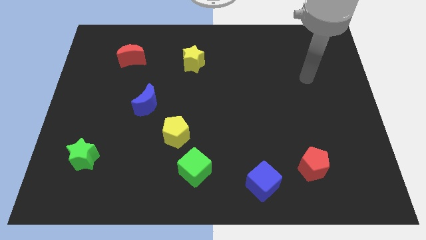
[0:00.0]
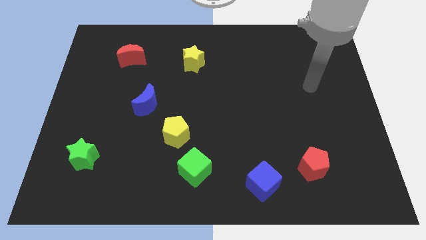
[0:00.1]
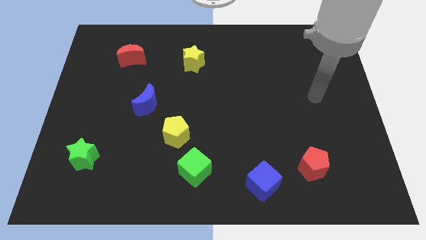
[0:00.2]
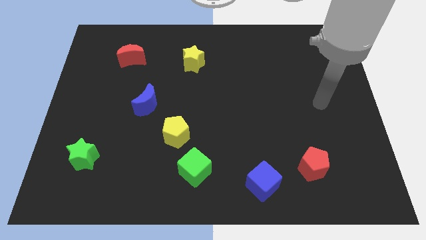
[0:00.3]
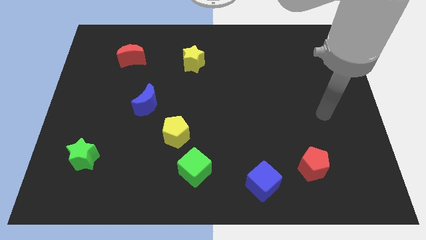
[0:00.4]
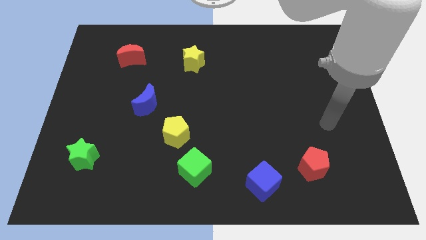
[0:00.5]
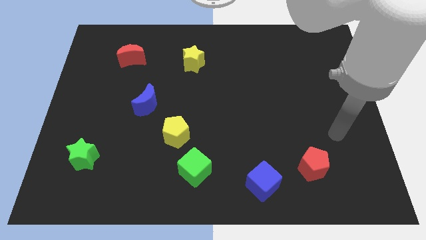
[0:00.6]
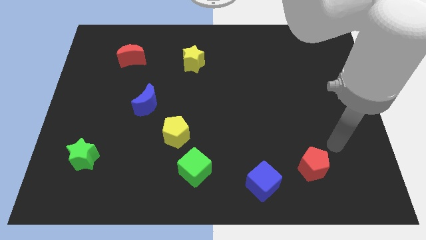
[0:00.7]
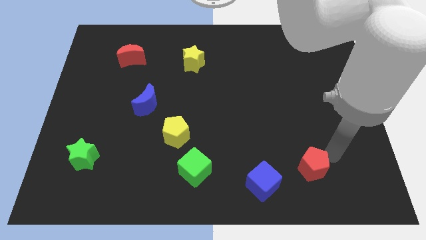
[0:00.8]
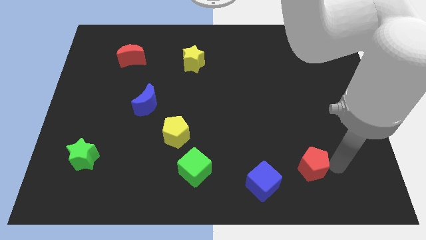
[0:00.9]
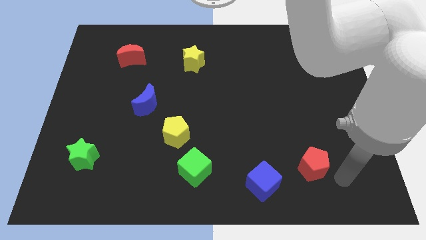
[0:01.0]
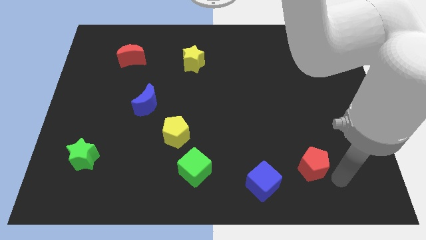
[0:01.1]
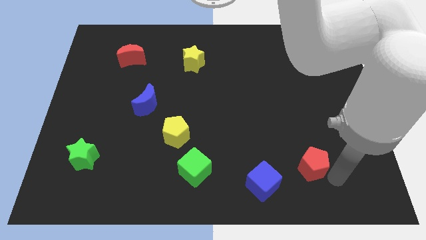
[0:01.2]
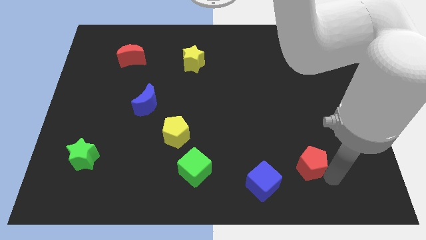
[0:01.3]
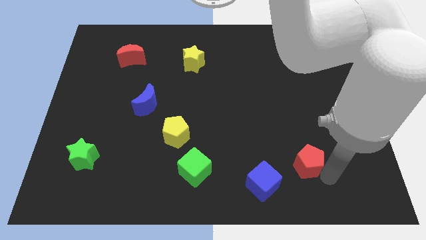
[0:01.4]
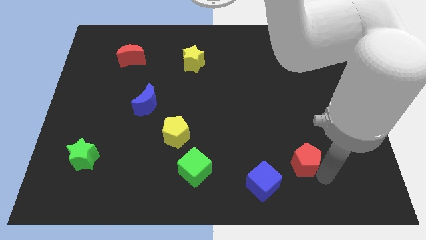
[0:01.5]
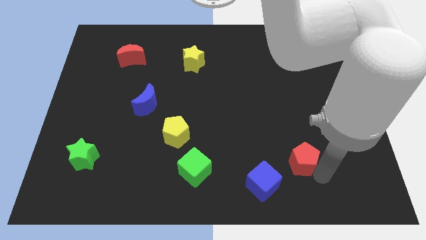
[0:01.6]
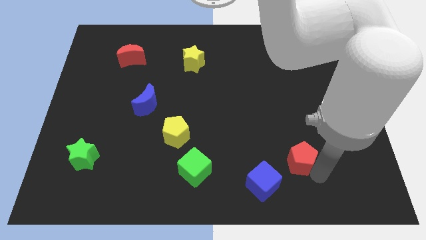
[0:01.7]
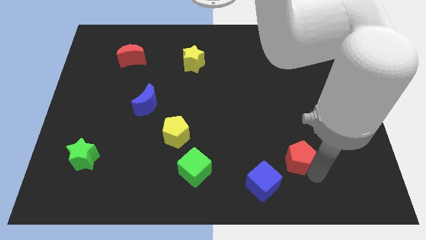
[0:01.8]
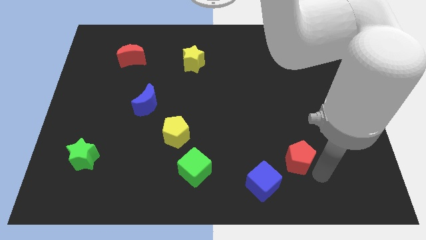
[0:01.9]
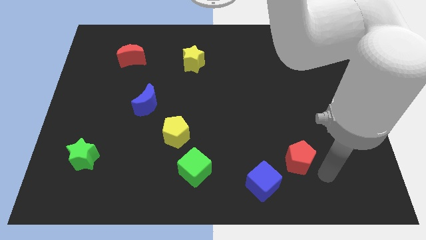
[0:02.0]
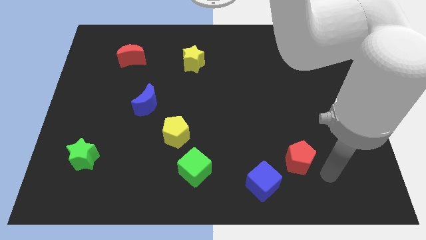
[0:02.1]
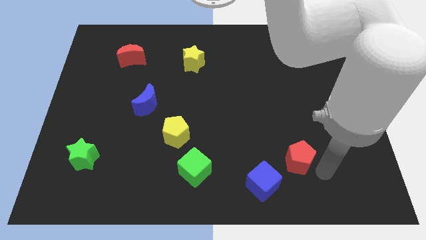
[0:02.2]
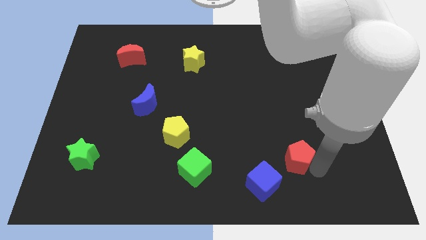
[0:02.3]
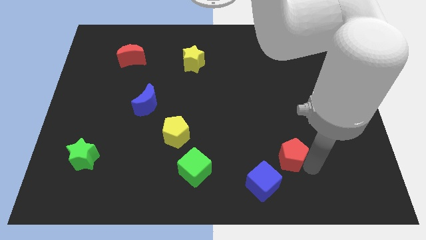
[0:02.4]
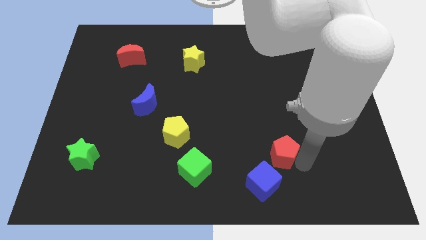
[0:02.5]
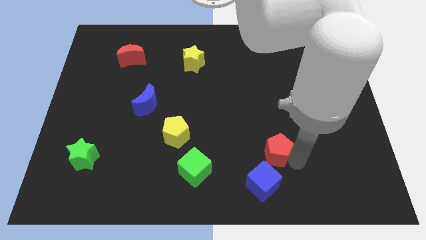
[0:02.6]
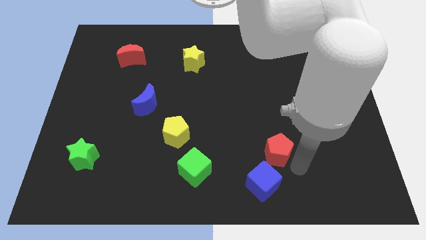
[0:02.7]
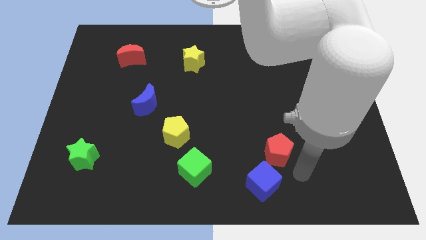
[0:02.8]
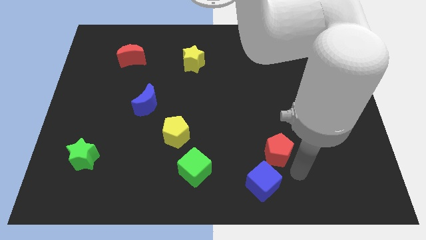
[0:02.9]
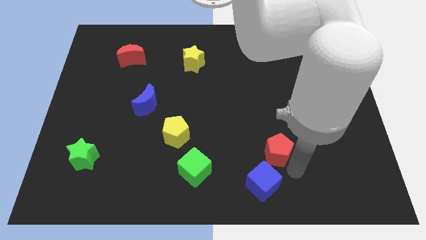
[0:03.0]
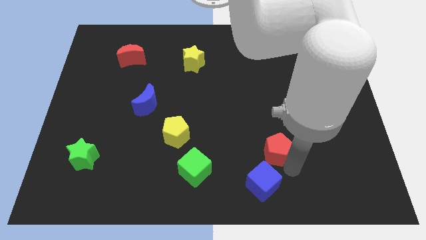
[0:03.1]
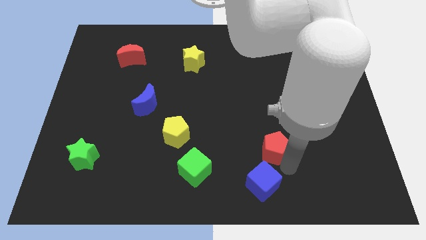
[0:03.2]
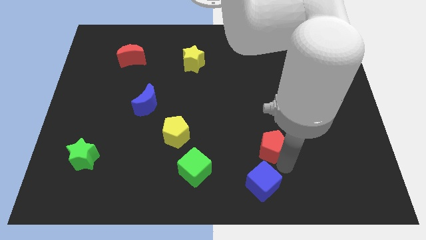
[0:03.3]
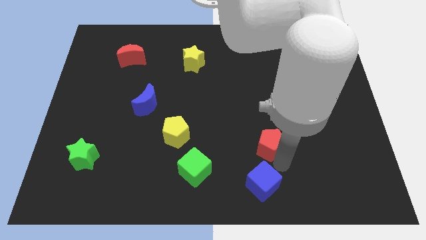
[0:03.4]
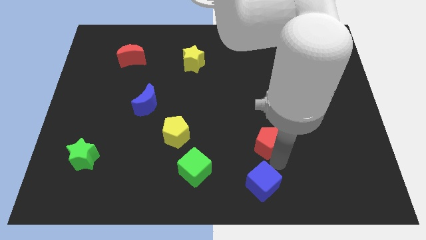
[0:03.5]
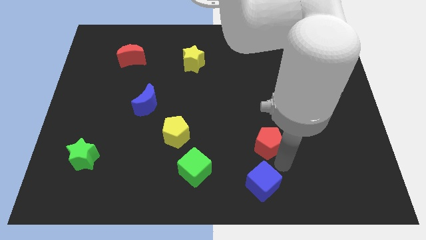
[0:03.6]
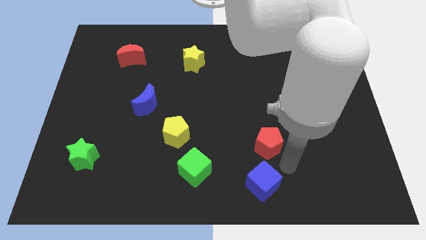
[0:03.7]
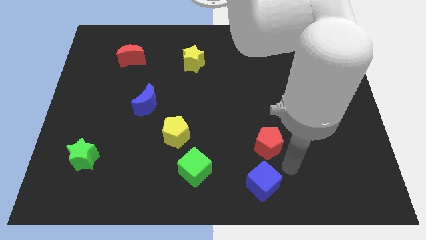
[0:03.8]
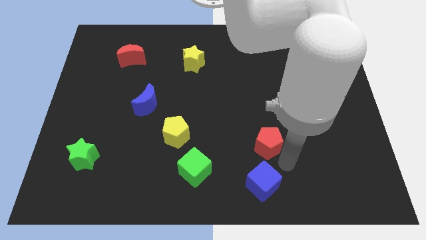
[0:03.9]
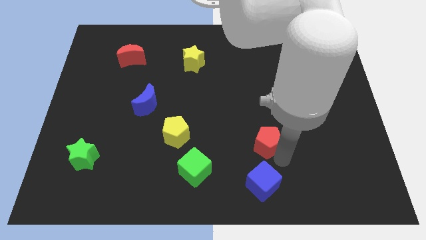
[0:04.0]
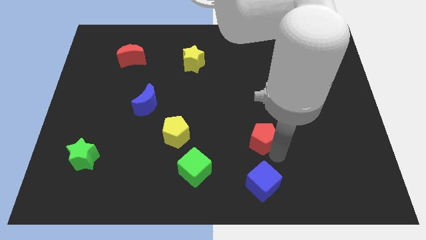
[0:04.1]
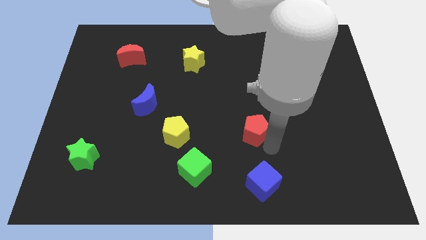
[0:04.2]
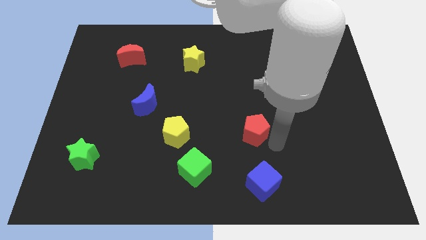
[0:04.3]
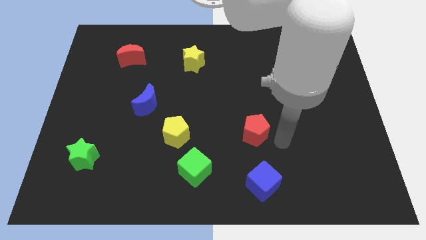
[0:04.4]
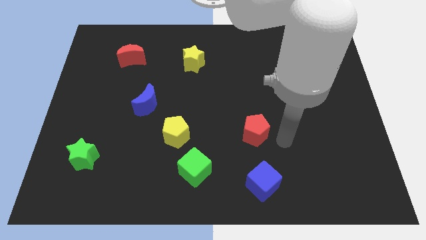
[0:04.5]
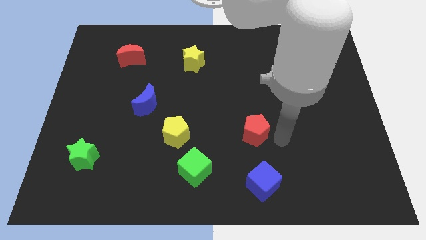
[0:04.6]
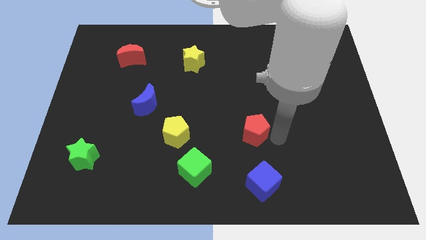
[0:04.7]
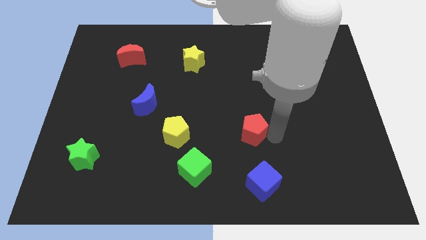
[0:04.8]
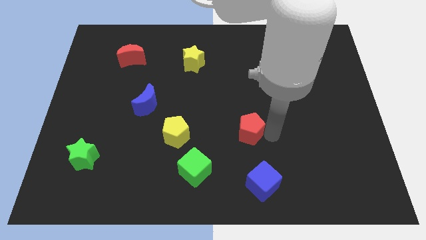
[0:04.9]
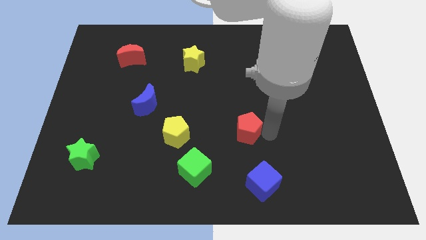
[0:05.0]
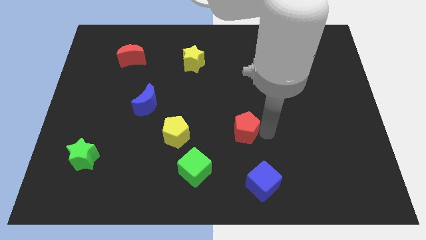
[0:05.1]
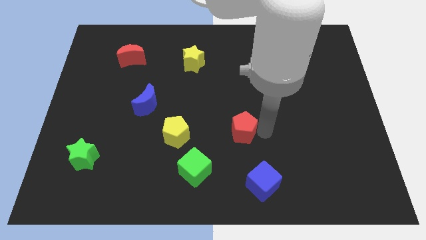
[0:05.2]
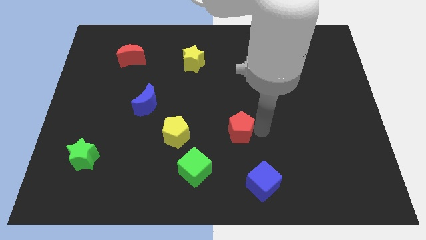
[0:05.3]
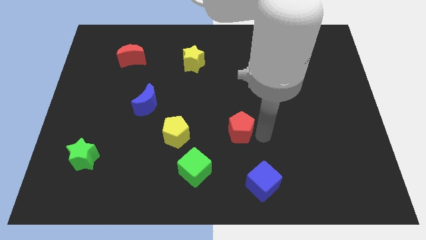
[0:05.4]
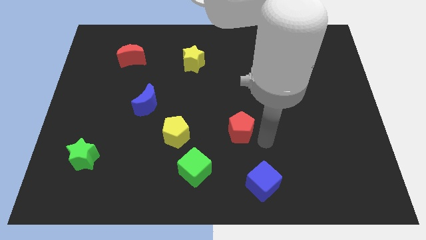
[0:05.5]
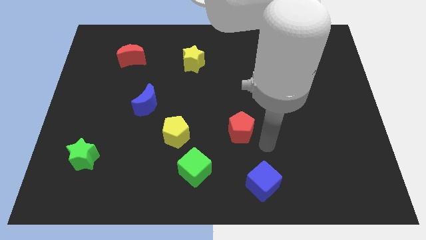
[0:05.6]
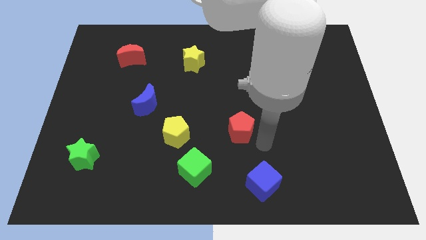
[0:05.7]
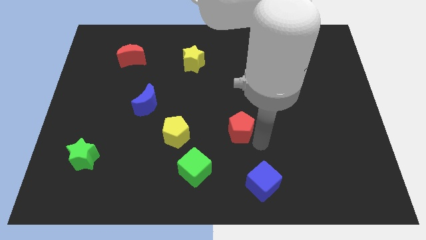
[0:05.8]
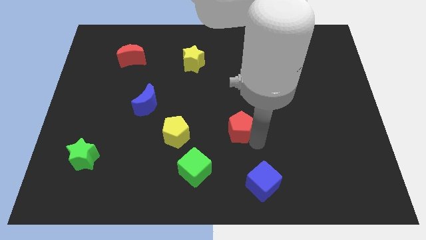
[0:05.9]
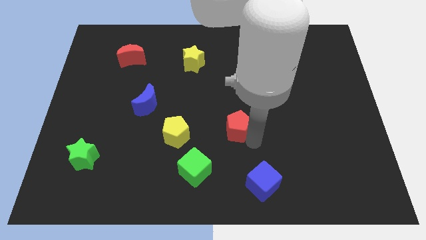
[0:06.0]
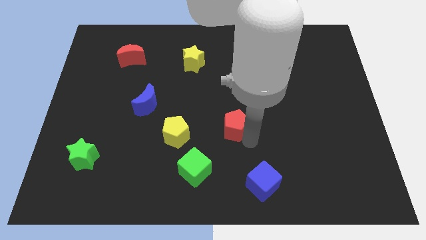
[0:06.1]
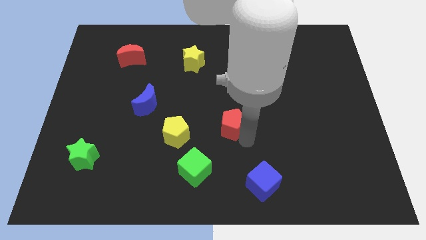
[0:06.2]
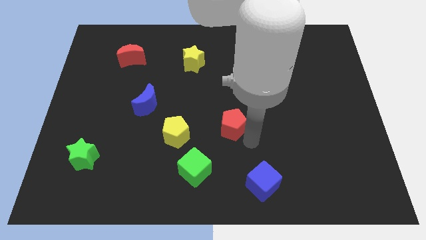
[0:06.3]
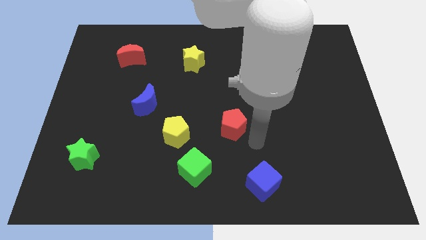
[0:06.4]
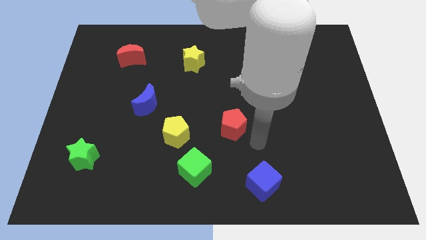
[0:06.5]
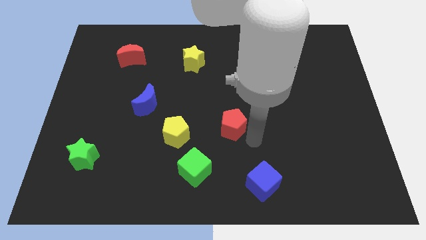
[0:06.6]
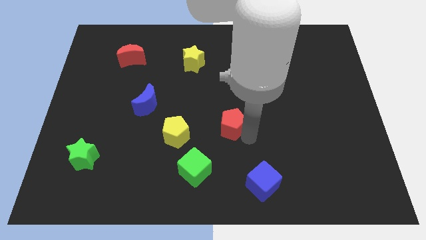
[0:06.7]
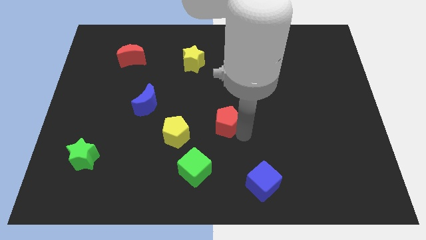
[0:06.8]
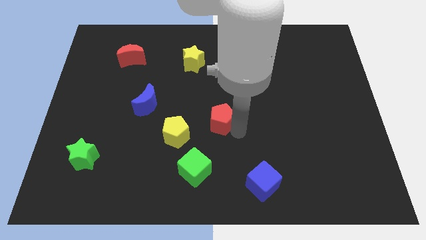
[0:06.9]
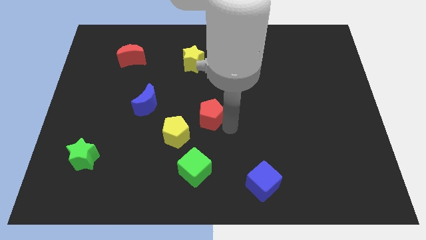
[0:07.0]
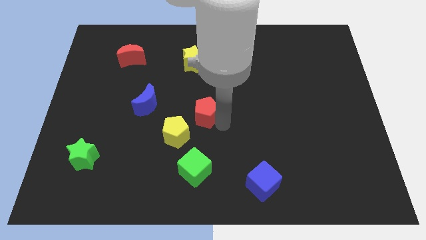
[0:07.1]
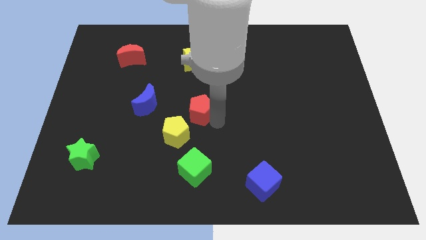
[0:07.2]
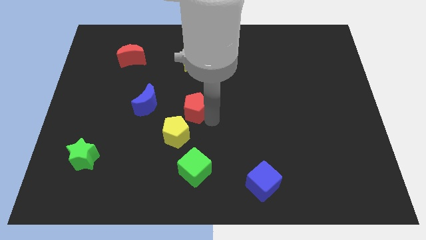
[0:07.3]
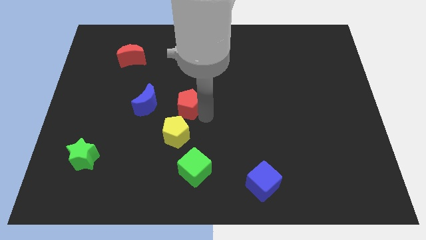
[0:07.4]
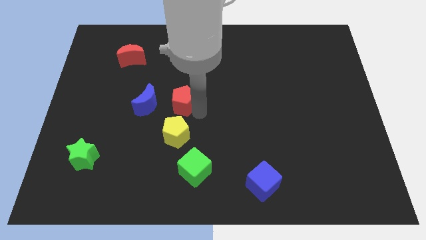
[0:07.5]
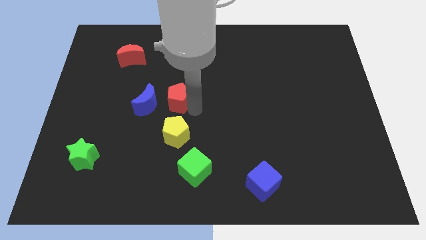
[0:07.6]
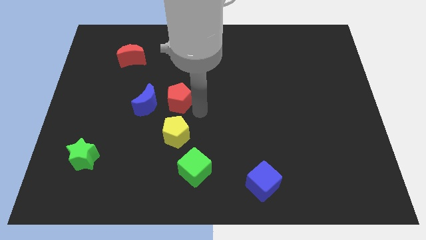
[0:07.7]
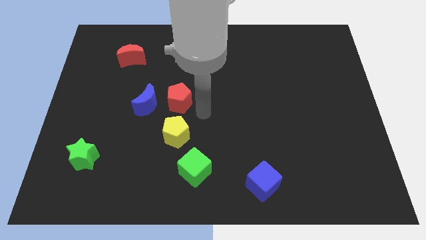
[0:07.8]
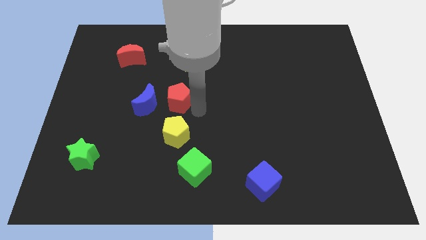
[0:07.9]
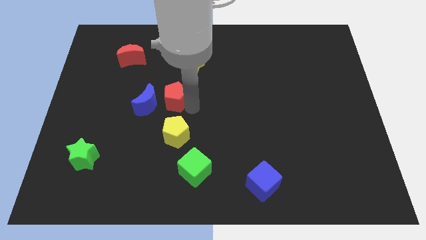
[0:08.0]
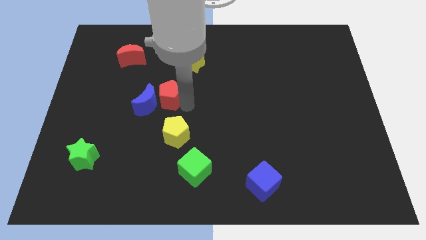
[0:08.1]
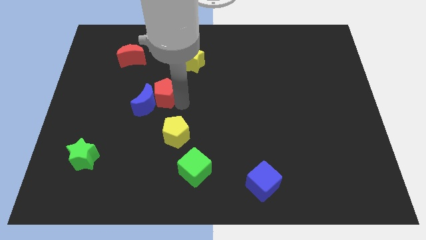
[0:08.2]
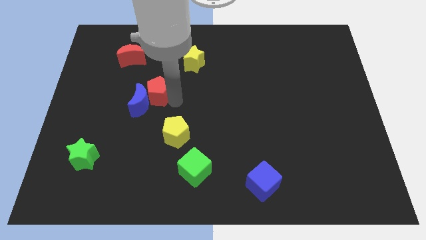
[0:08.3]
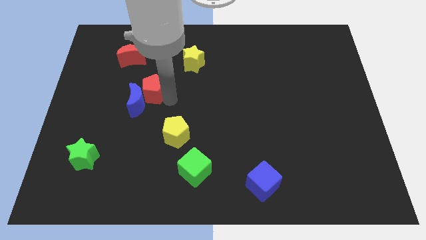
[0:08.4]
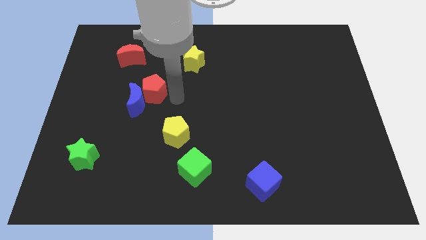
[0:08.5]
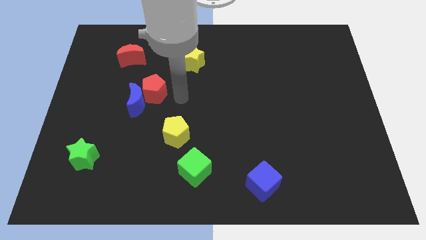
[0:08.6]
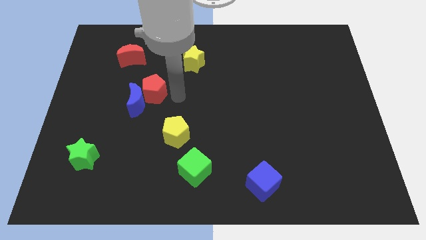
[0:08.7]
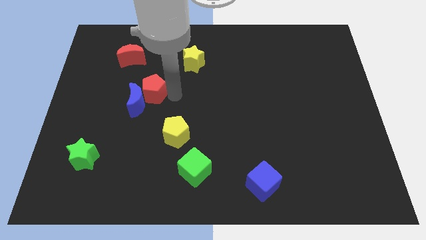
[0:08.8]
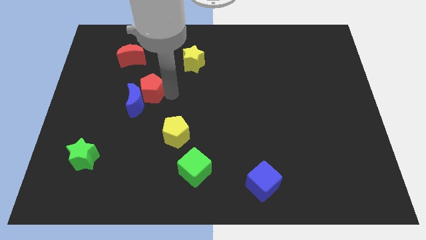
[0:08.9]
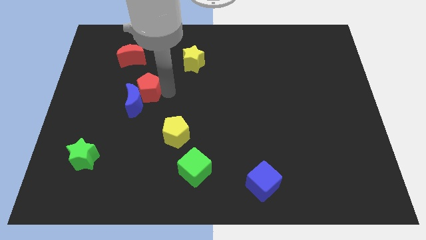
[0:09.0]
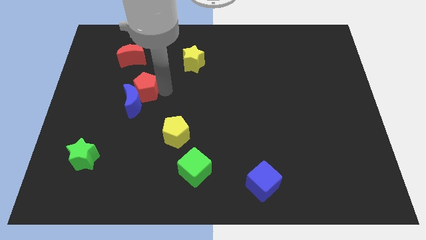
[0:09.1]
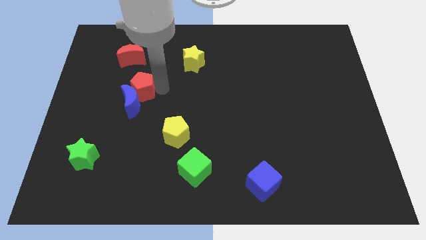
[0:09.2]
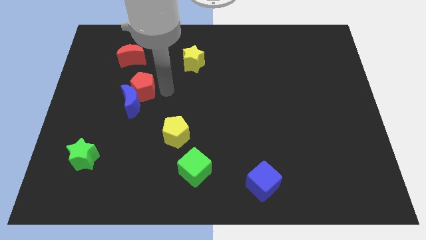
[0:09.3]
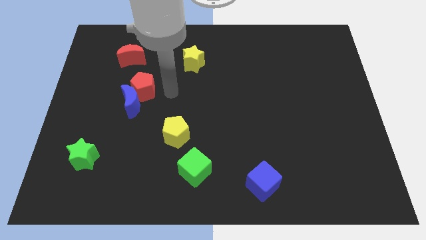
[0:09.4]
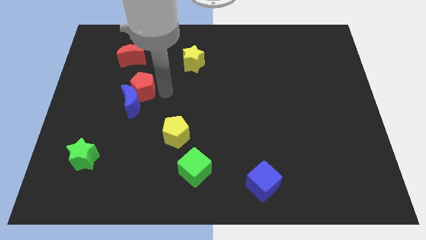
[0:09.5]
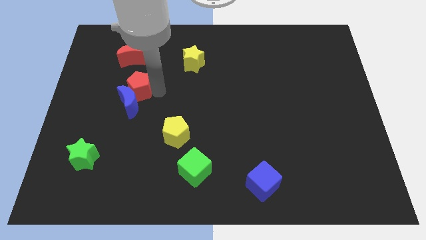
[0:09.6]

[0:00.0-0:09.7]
slide the red pentagon diagonally up and to the left of the blue moon
